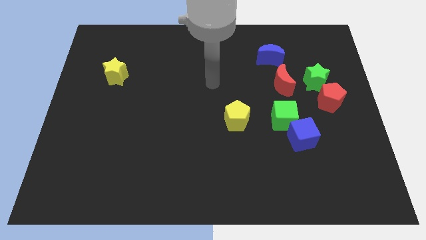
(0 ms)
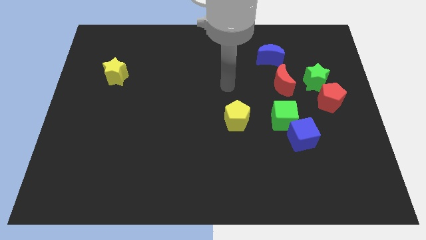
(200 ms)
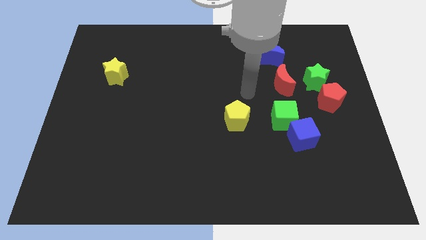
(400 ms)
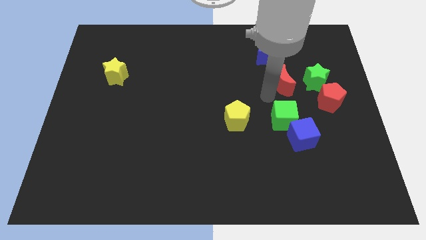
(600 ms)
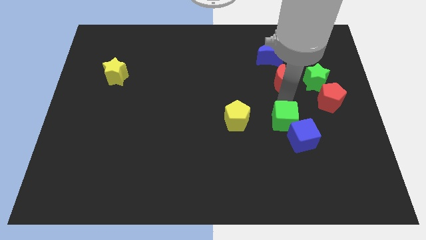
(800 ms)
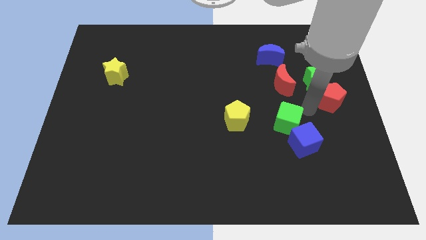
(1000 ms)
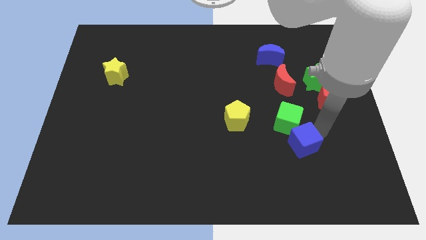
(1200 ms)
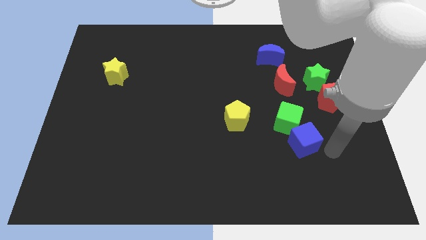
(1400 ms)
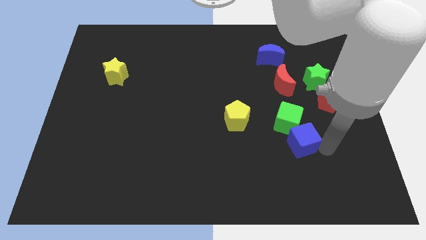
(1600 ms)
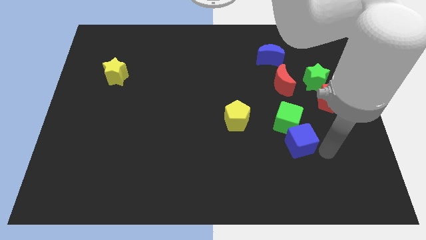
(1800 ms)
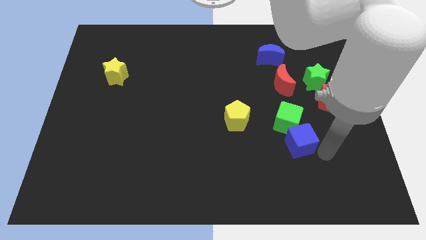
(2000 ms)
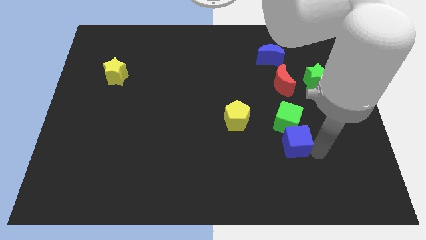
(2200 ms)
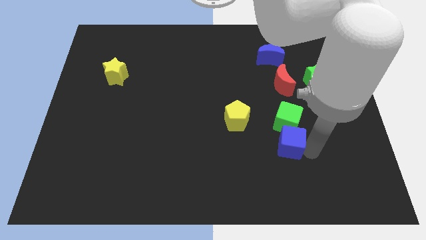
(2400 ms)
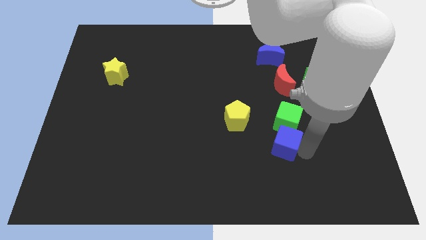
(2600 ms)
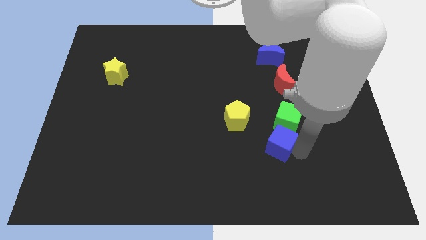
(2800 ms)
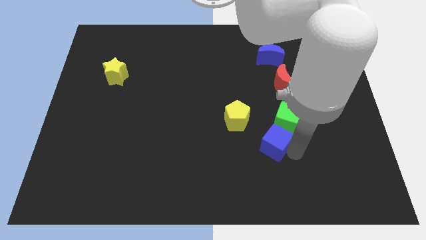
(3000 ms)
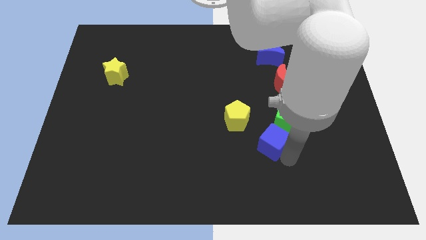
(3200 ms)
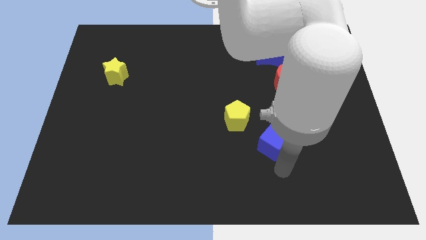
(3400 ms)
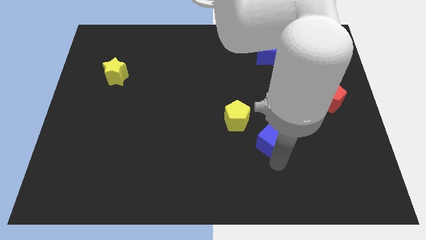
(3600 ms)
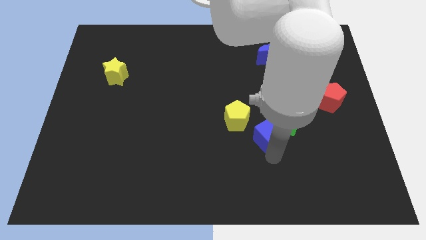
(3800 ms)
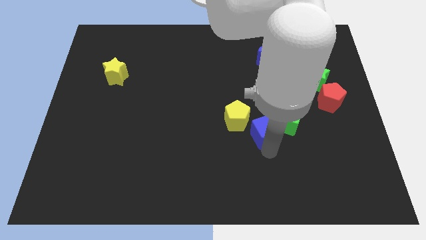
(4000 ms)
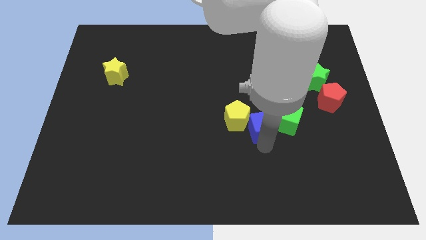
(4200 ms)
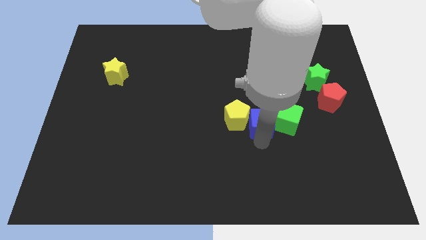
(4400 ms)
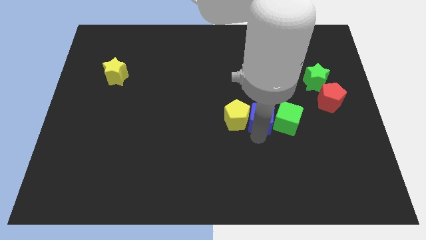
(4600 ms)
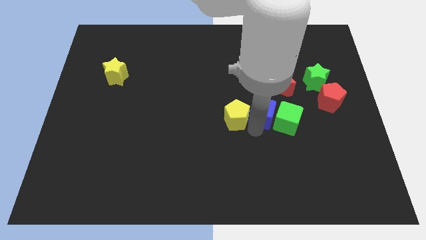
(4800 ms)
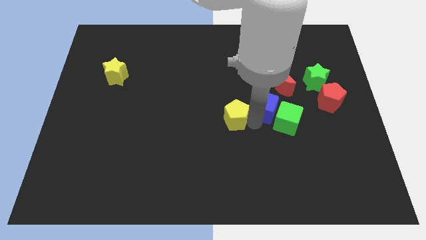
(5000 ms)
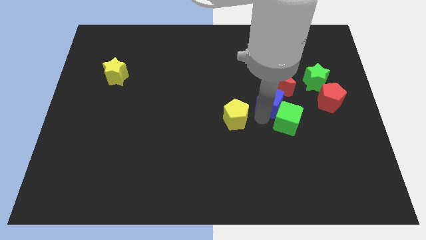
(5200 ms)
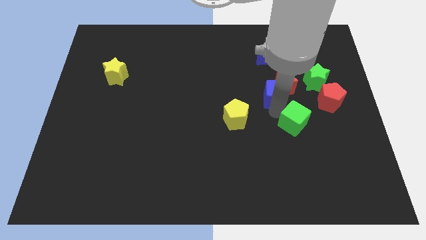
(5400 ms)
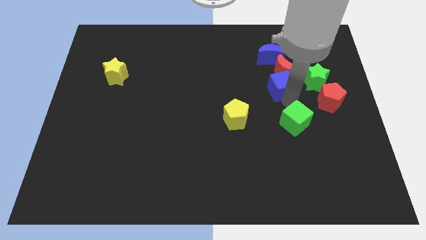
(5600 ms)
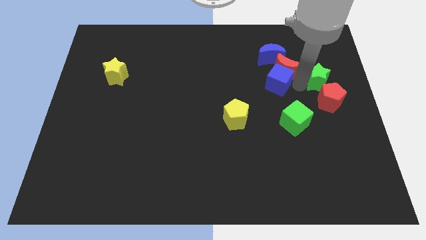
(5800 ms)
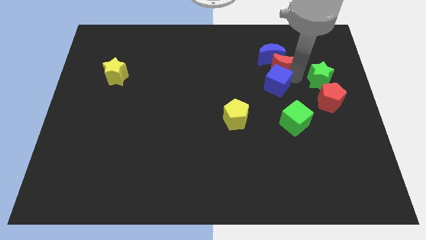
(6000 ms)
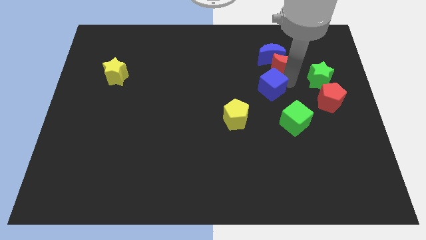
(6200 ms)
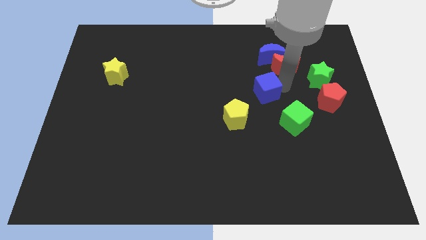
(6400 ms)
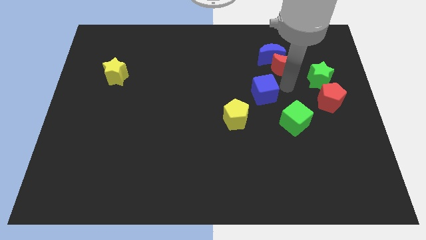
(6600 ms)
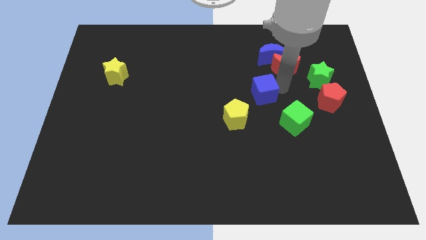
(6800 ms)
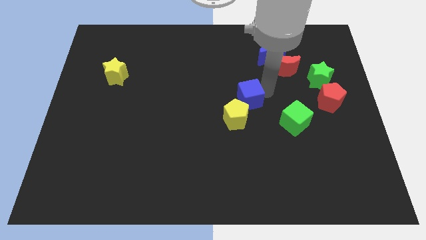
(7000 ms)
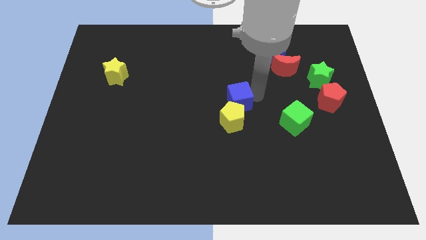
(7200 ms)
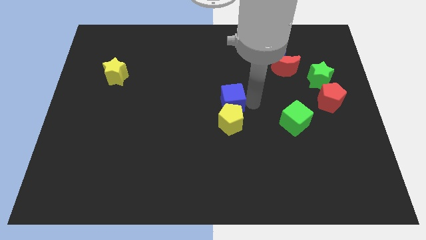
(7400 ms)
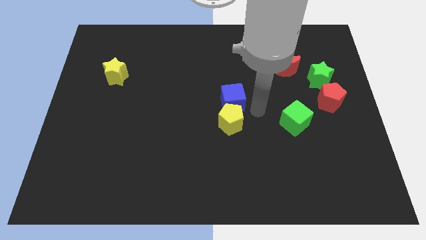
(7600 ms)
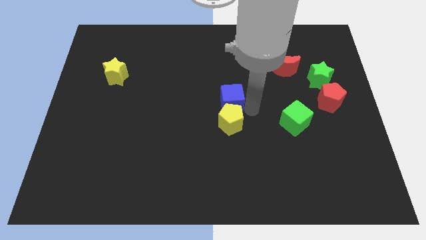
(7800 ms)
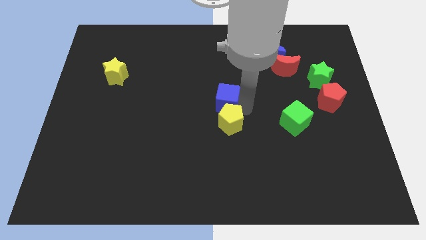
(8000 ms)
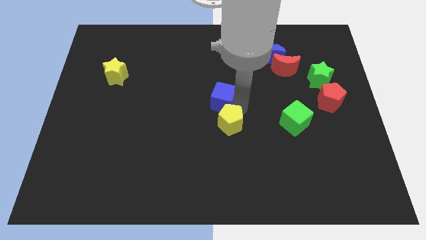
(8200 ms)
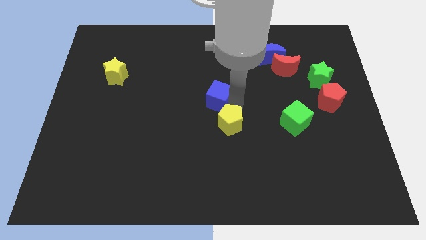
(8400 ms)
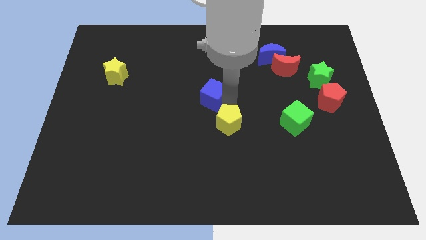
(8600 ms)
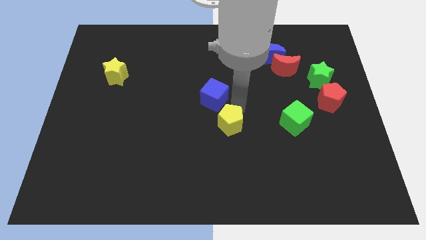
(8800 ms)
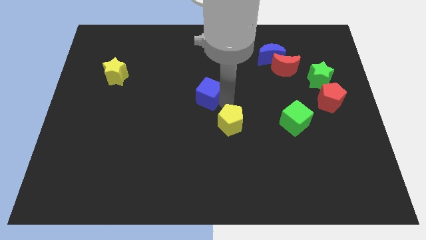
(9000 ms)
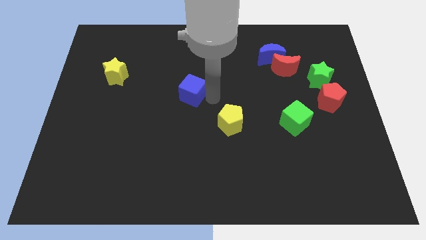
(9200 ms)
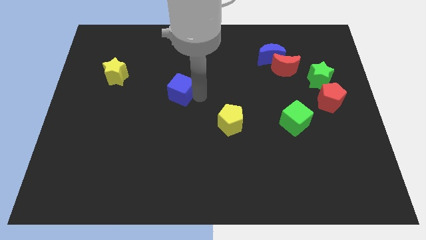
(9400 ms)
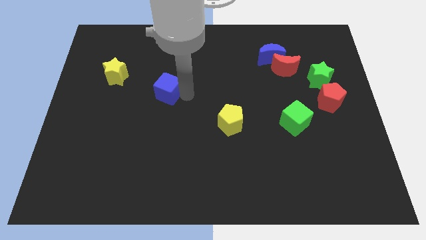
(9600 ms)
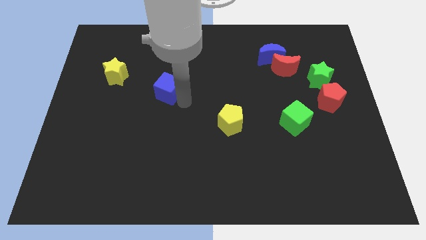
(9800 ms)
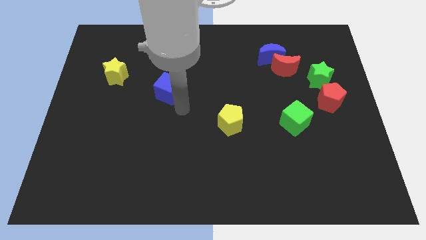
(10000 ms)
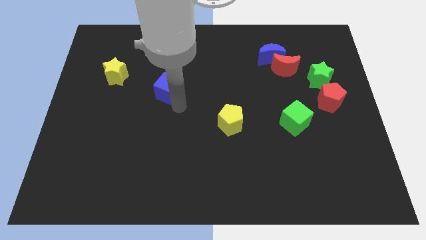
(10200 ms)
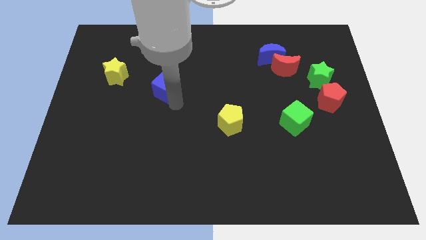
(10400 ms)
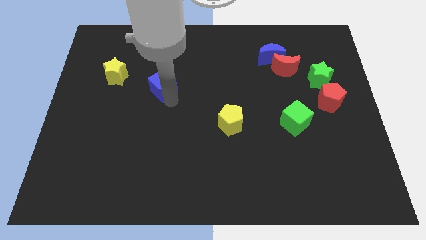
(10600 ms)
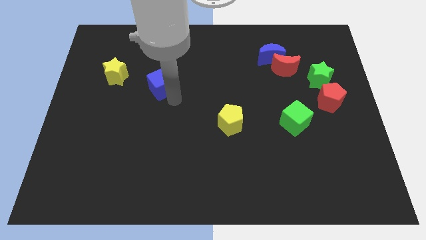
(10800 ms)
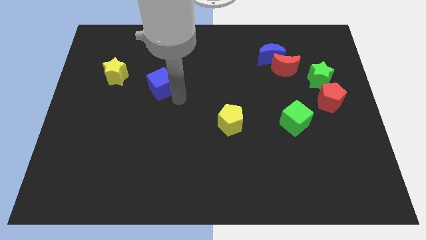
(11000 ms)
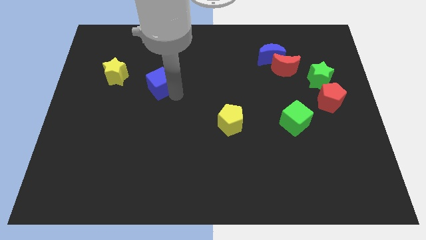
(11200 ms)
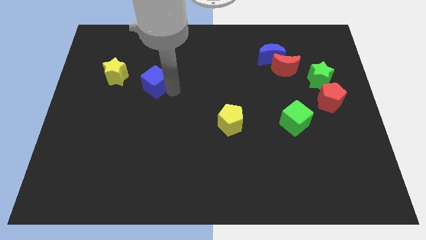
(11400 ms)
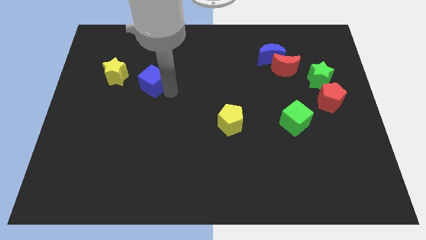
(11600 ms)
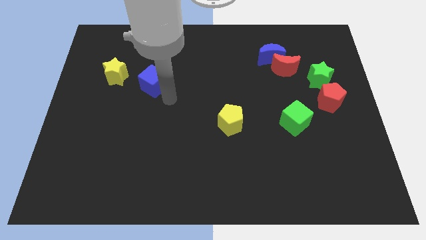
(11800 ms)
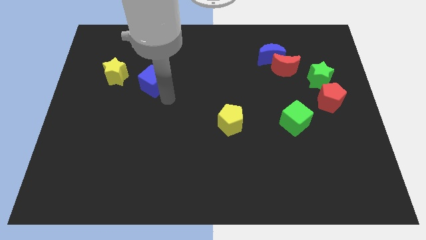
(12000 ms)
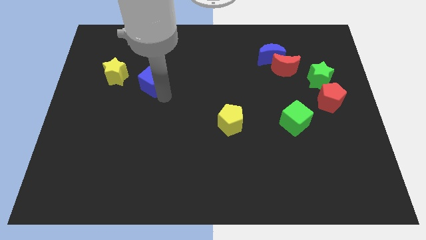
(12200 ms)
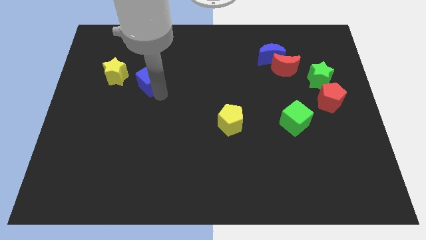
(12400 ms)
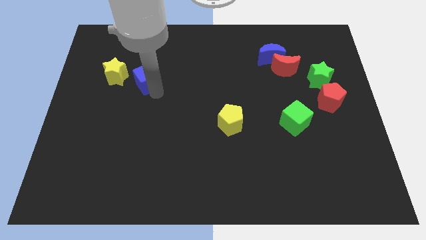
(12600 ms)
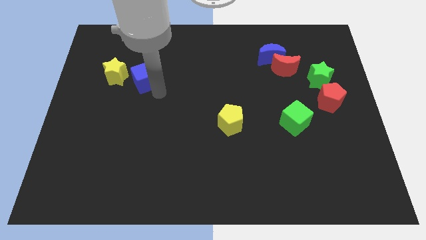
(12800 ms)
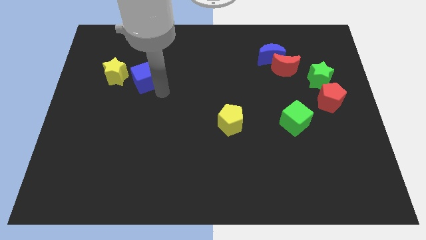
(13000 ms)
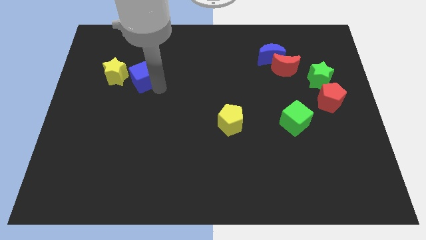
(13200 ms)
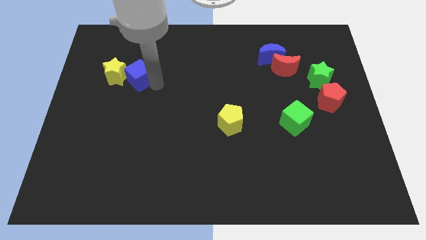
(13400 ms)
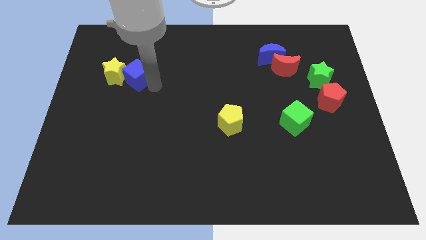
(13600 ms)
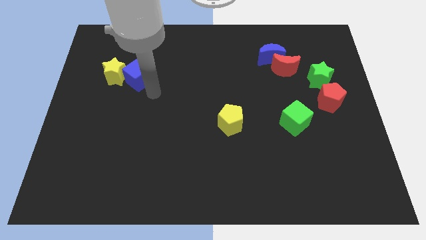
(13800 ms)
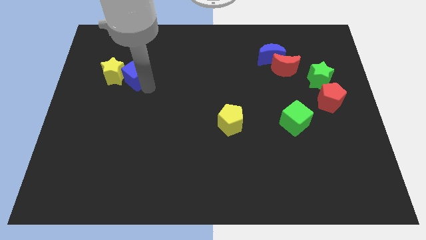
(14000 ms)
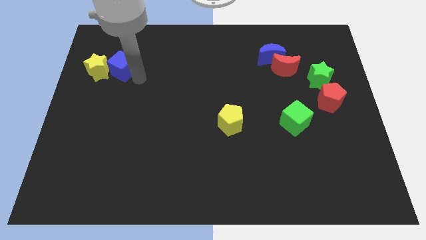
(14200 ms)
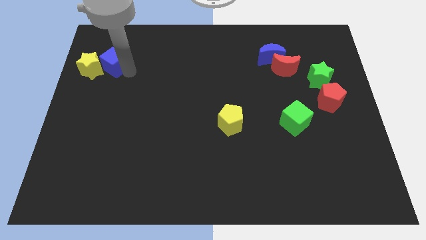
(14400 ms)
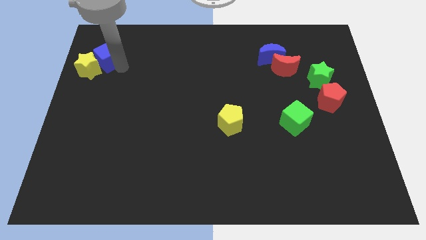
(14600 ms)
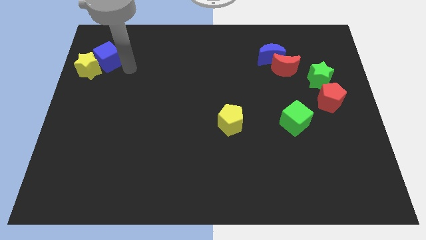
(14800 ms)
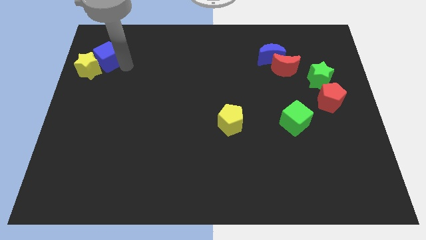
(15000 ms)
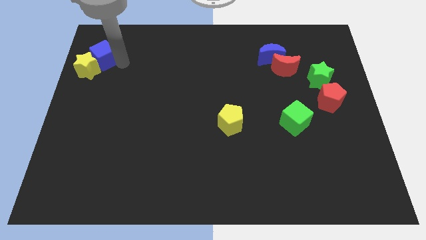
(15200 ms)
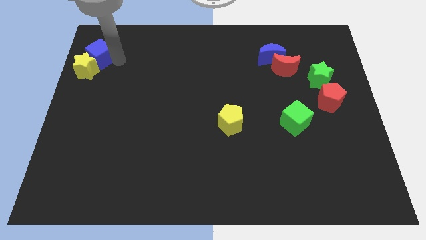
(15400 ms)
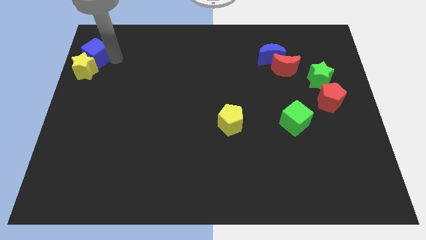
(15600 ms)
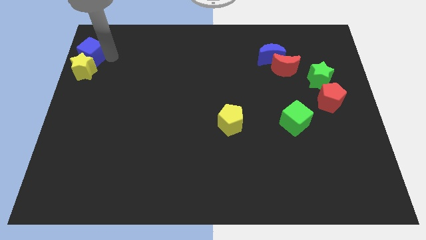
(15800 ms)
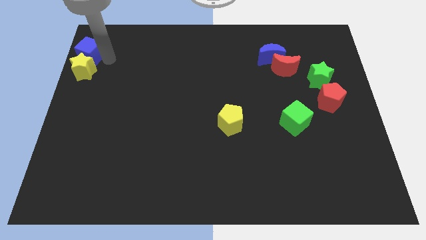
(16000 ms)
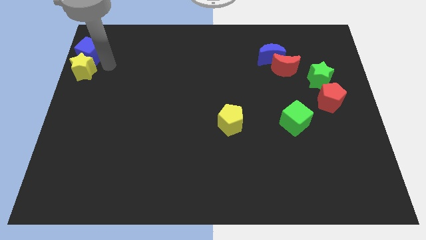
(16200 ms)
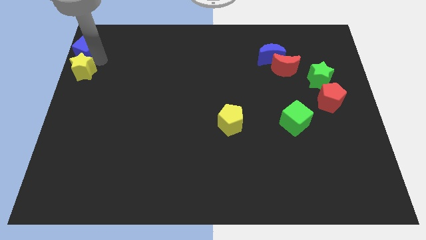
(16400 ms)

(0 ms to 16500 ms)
push the blue cube to the top left corner
